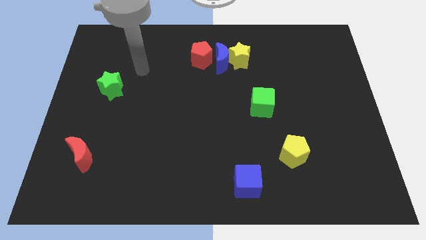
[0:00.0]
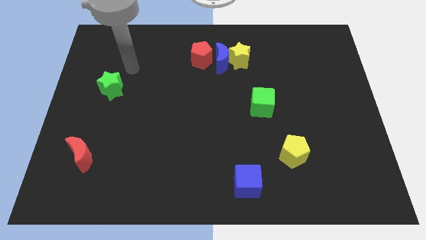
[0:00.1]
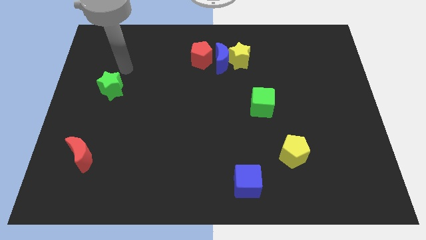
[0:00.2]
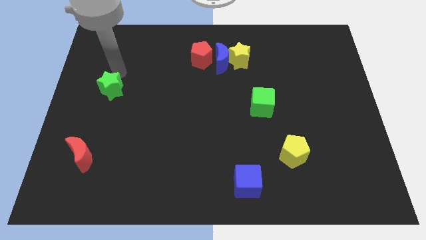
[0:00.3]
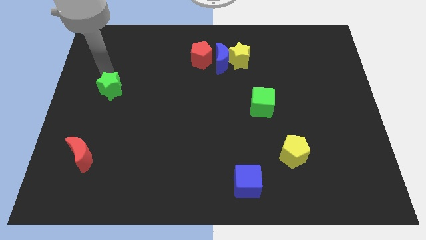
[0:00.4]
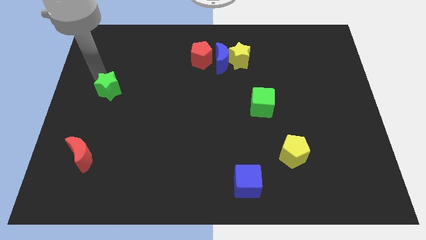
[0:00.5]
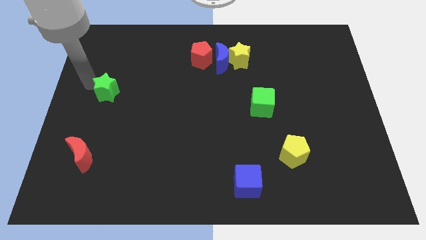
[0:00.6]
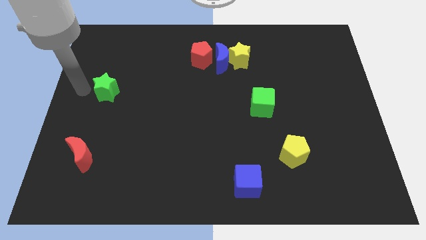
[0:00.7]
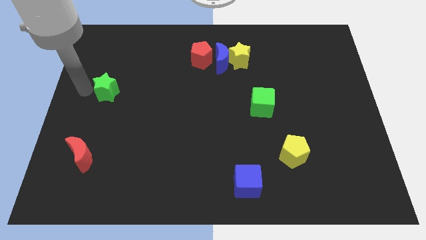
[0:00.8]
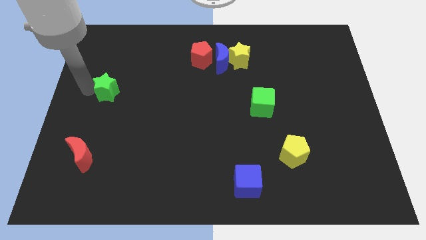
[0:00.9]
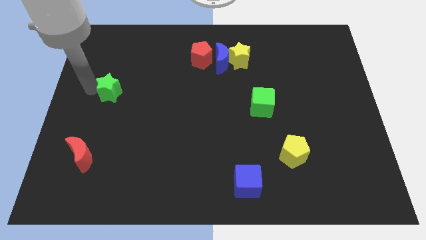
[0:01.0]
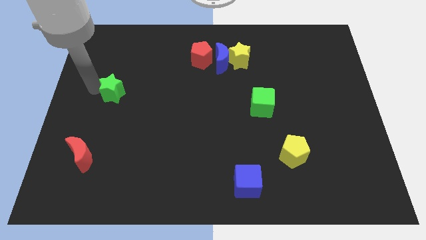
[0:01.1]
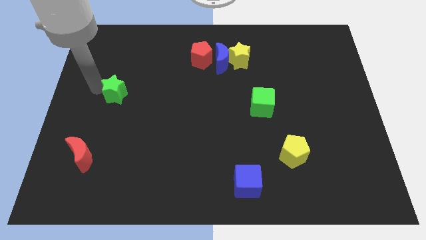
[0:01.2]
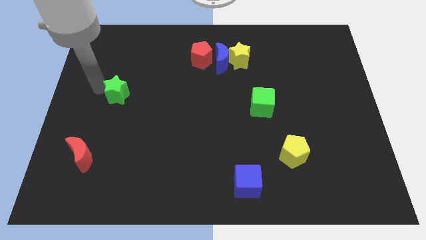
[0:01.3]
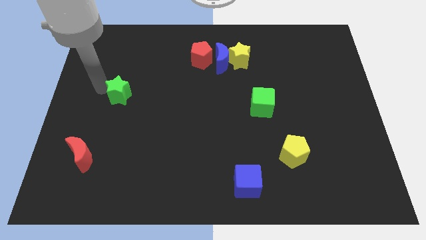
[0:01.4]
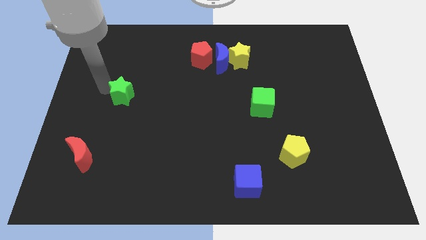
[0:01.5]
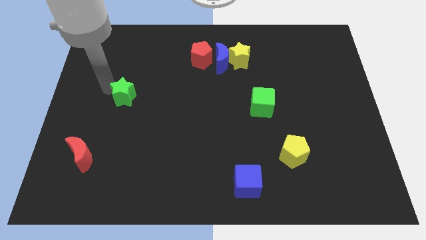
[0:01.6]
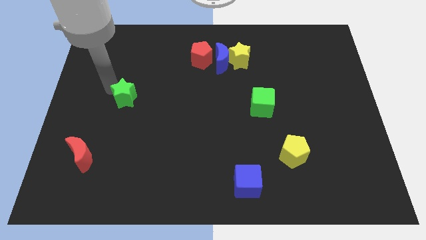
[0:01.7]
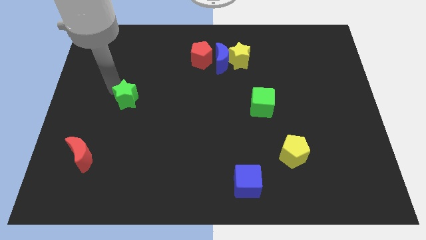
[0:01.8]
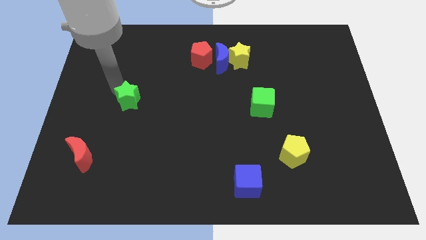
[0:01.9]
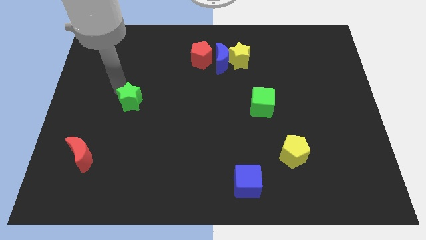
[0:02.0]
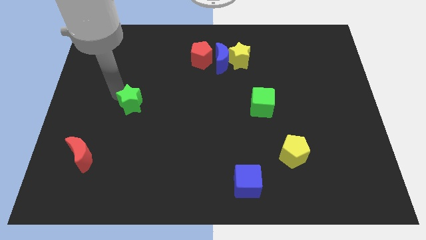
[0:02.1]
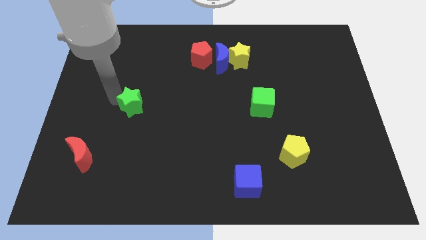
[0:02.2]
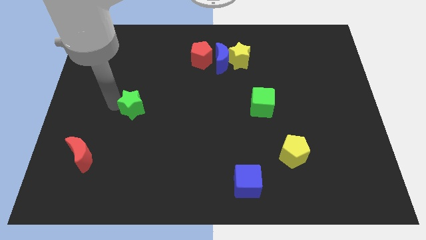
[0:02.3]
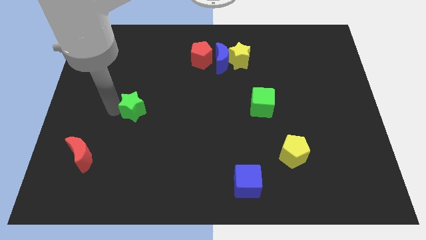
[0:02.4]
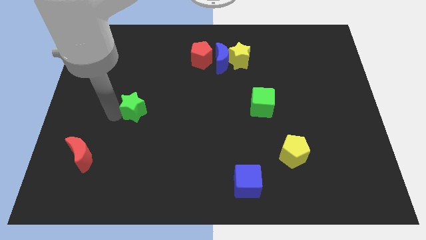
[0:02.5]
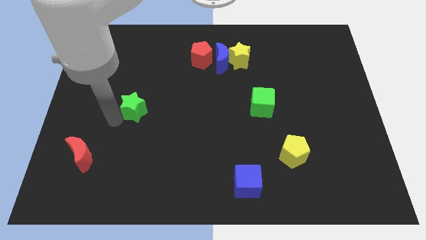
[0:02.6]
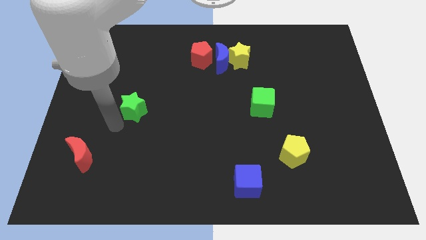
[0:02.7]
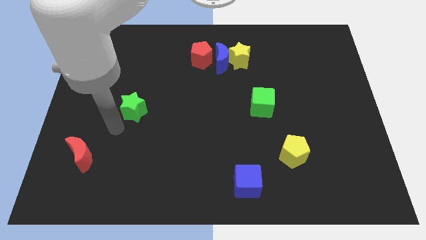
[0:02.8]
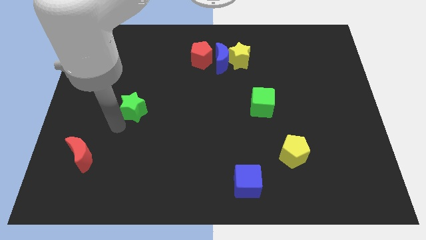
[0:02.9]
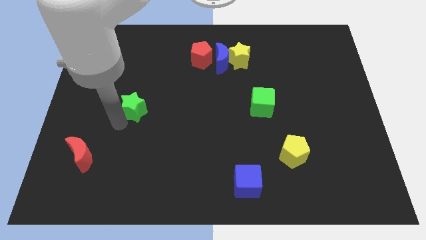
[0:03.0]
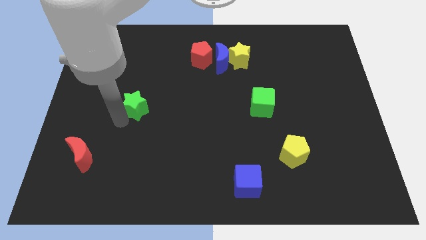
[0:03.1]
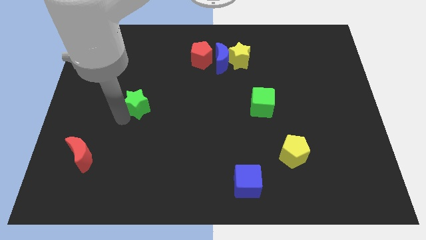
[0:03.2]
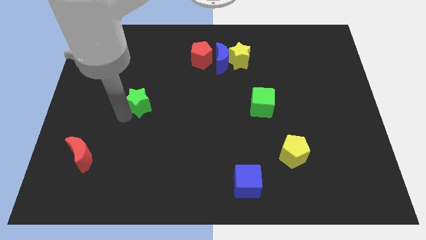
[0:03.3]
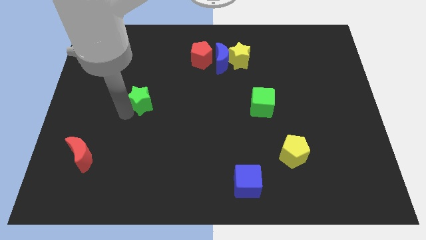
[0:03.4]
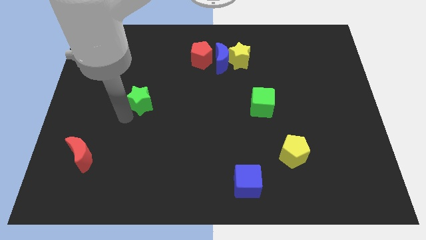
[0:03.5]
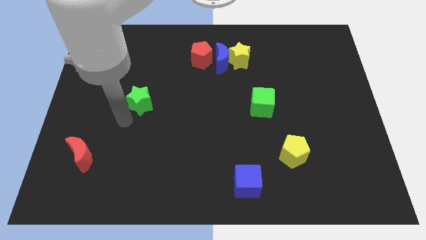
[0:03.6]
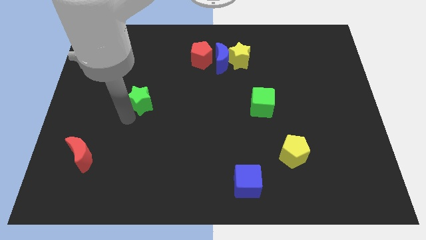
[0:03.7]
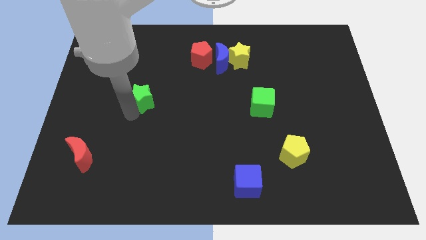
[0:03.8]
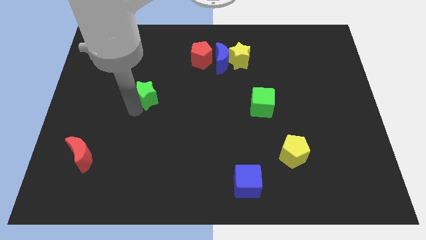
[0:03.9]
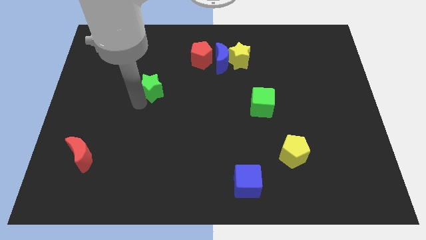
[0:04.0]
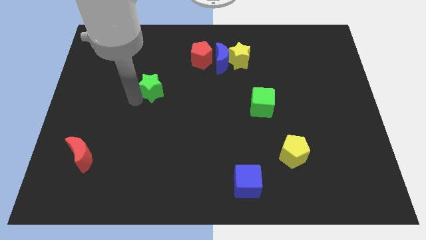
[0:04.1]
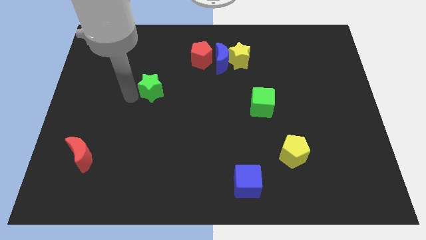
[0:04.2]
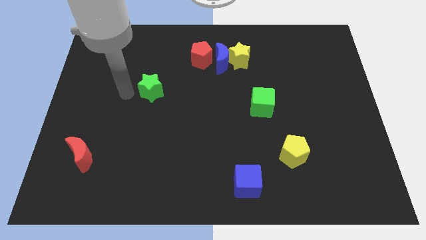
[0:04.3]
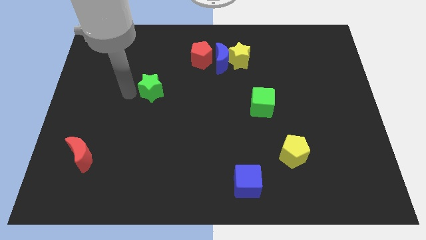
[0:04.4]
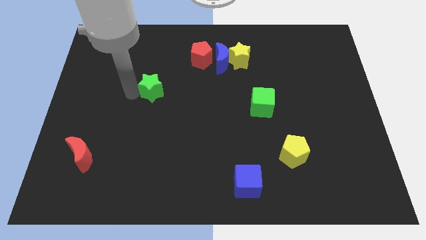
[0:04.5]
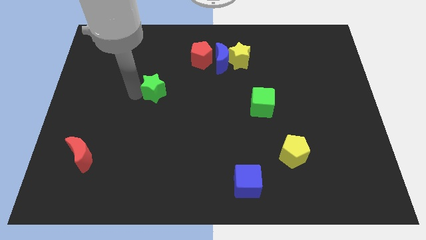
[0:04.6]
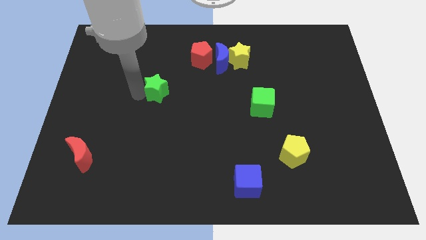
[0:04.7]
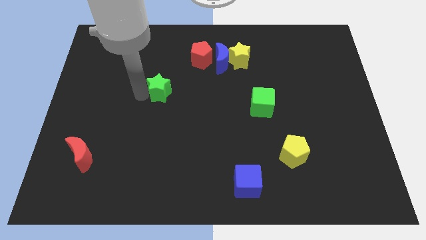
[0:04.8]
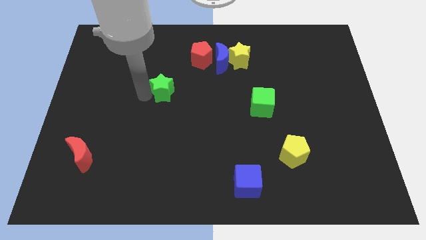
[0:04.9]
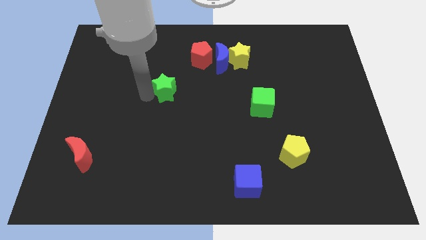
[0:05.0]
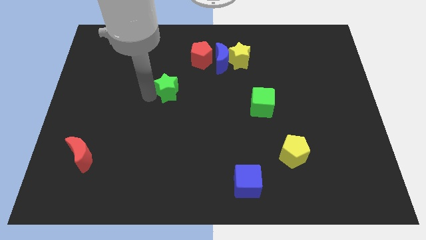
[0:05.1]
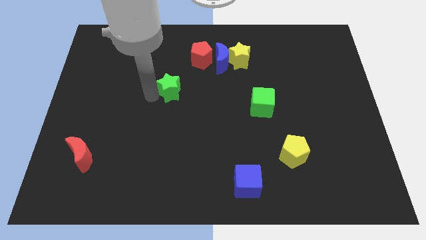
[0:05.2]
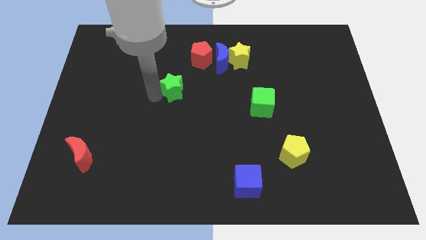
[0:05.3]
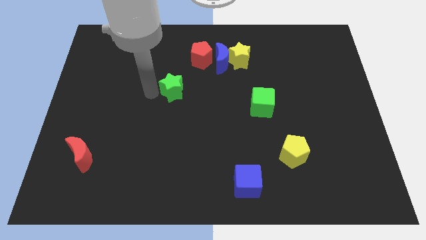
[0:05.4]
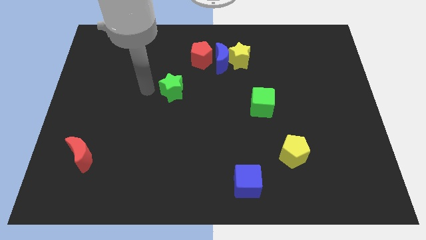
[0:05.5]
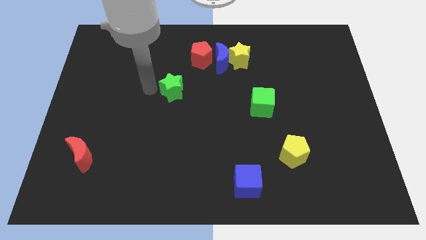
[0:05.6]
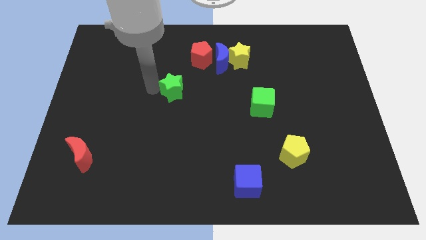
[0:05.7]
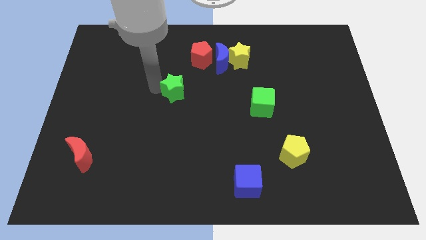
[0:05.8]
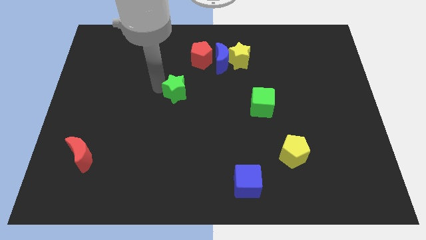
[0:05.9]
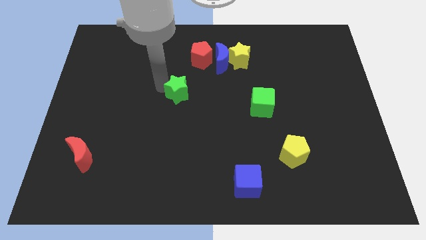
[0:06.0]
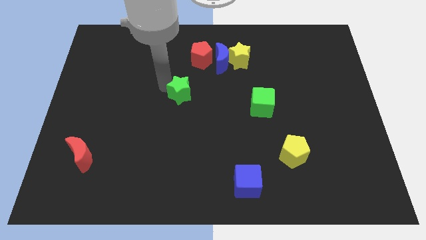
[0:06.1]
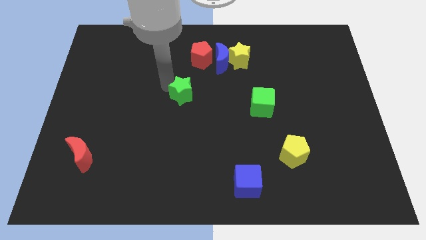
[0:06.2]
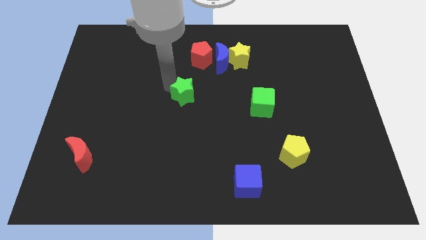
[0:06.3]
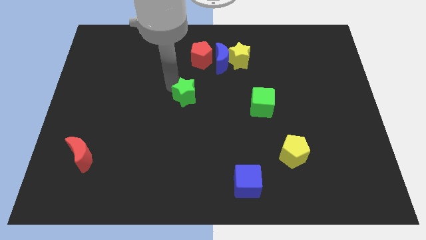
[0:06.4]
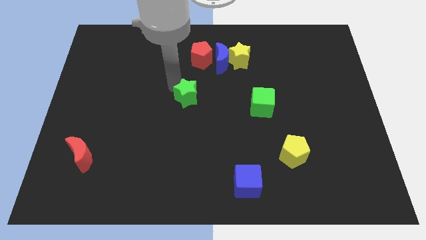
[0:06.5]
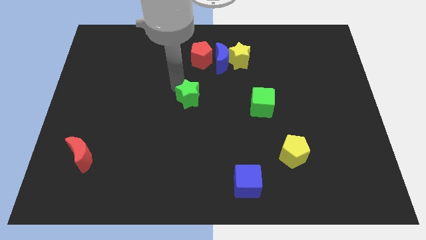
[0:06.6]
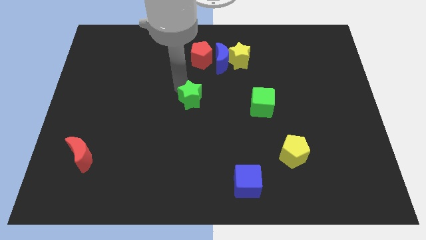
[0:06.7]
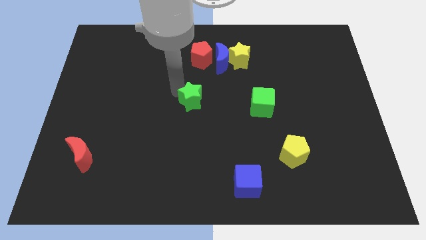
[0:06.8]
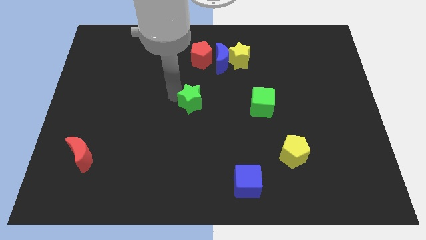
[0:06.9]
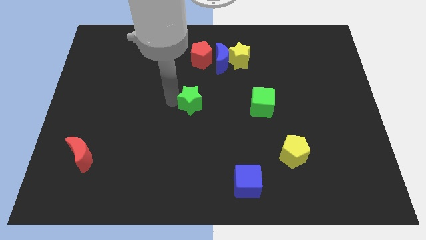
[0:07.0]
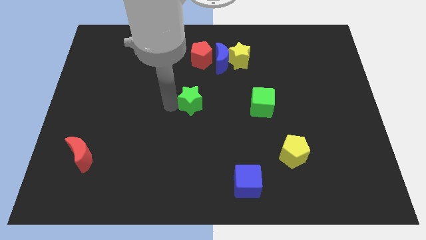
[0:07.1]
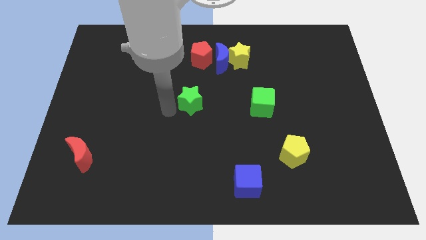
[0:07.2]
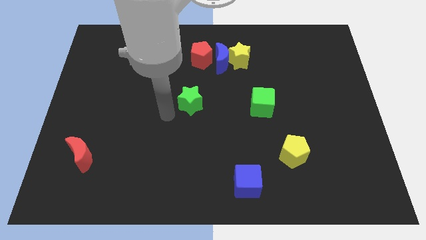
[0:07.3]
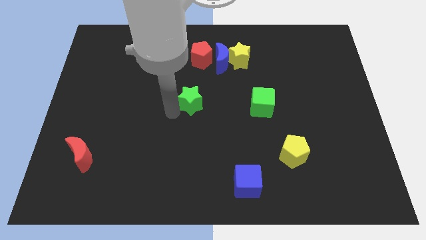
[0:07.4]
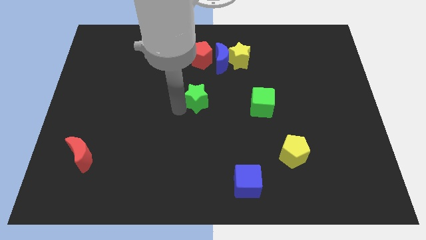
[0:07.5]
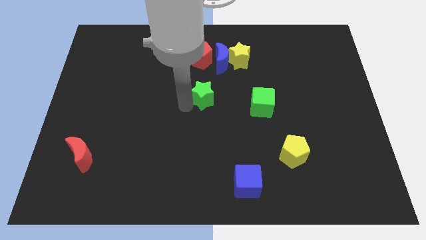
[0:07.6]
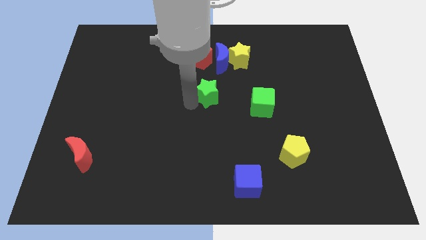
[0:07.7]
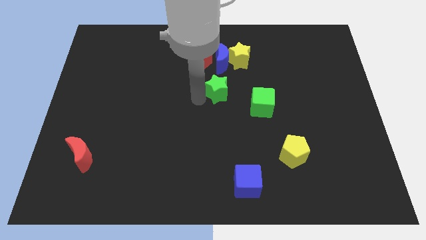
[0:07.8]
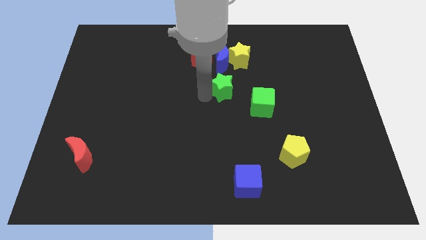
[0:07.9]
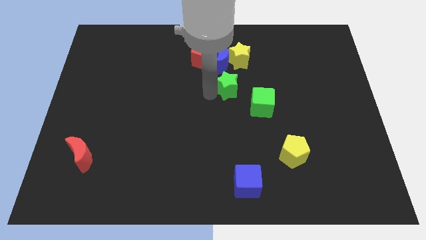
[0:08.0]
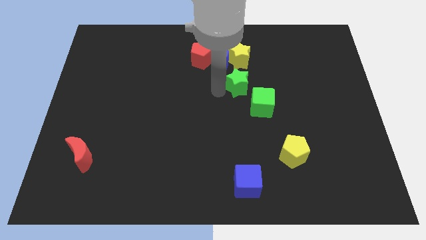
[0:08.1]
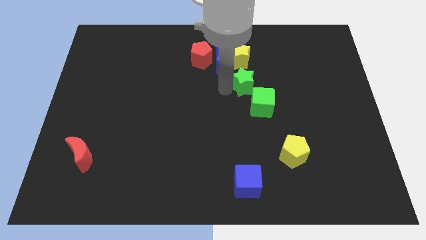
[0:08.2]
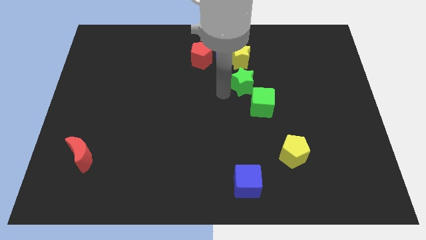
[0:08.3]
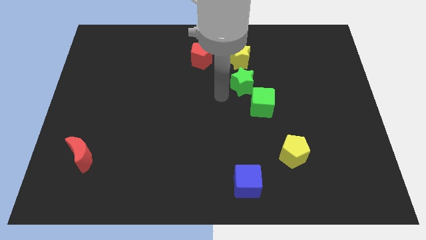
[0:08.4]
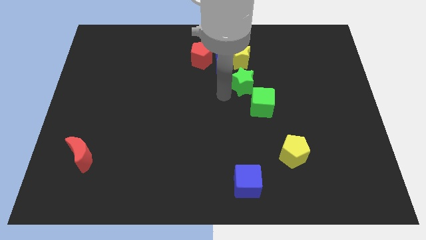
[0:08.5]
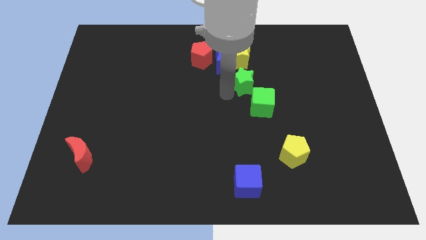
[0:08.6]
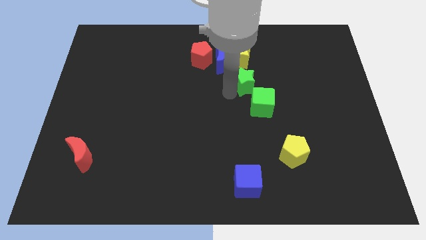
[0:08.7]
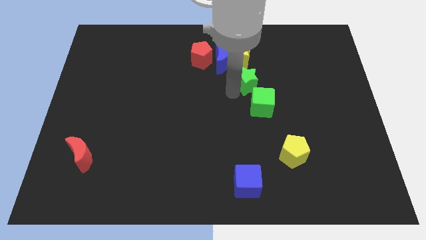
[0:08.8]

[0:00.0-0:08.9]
put the green star diagonally down and to the right of the yellow star
